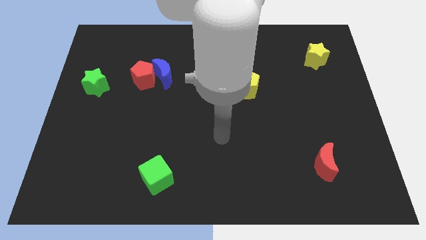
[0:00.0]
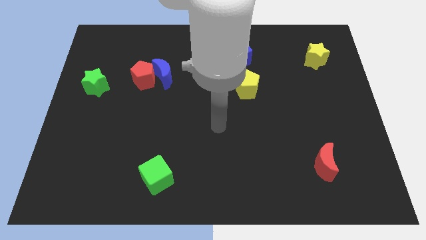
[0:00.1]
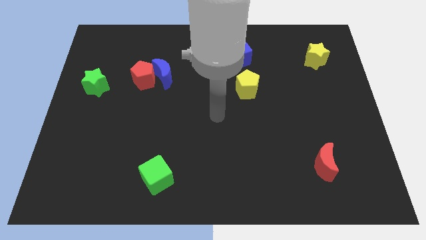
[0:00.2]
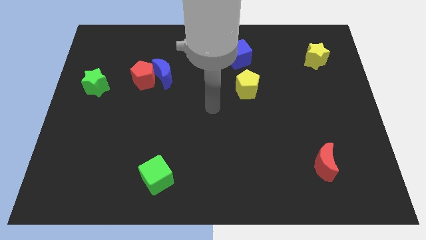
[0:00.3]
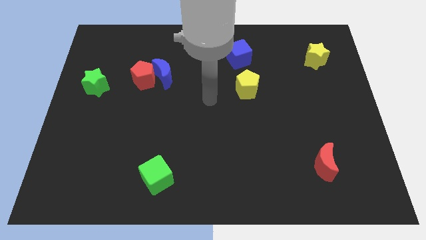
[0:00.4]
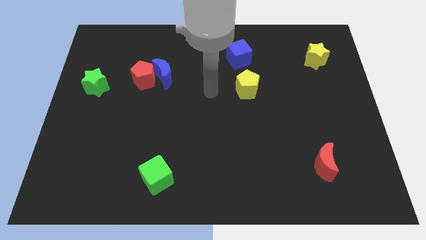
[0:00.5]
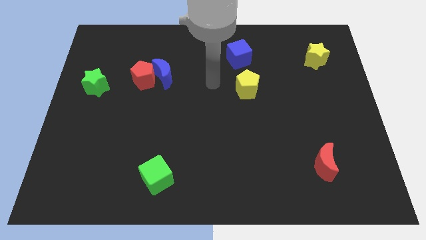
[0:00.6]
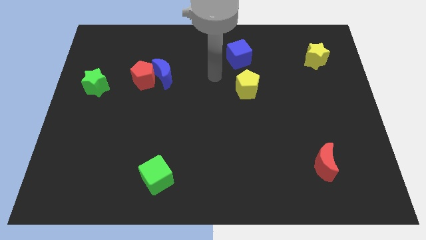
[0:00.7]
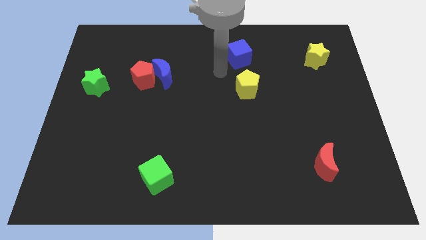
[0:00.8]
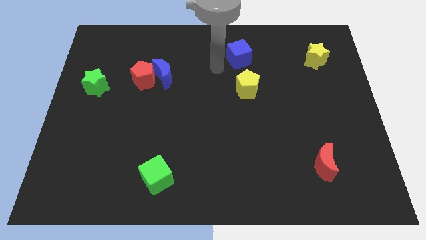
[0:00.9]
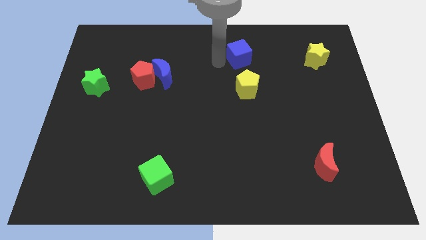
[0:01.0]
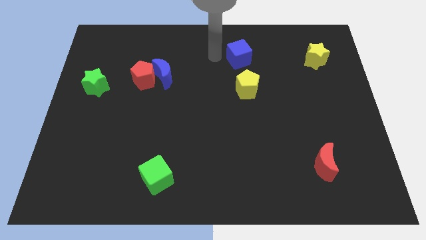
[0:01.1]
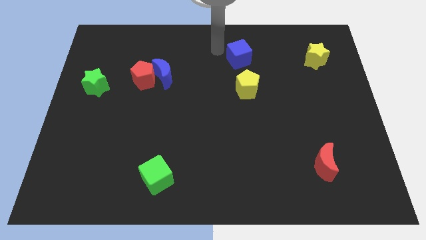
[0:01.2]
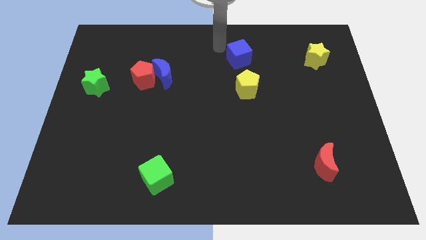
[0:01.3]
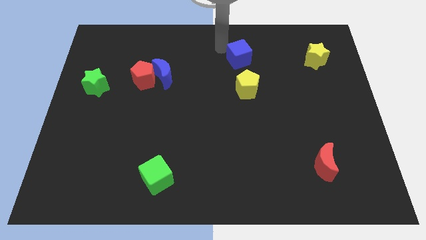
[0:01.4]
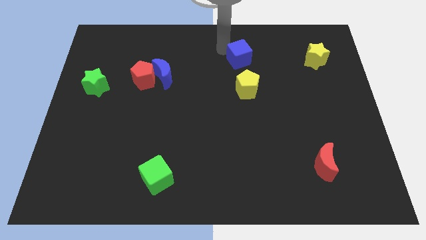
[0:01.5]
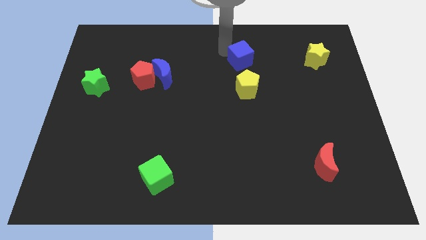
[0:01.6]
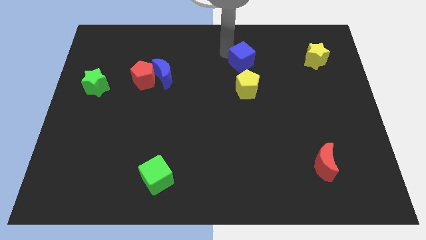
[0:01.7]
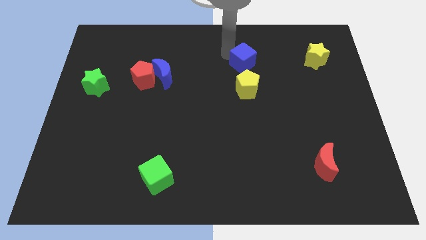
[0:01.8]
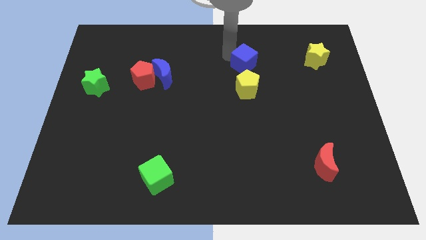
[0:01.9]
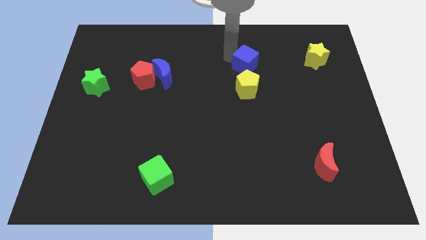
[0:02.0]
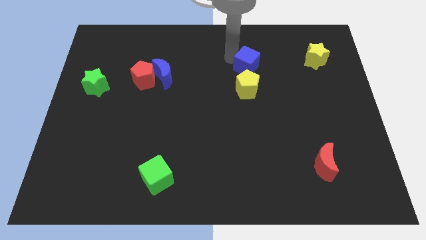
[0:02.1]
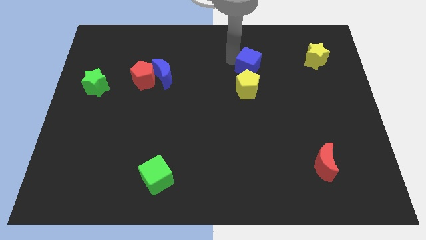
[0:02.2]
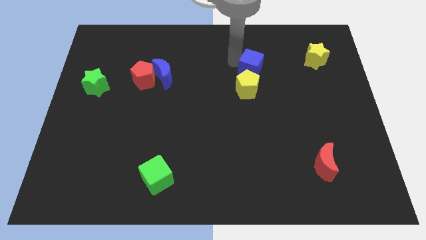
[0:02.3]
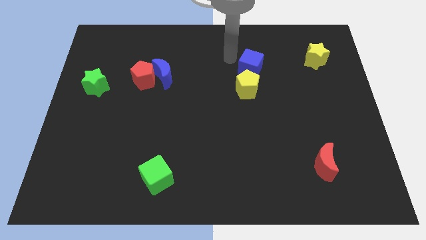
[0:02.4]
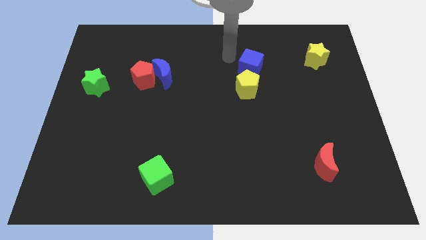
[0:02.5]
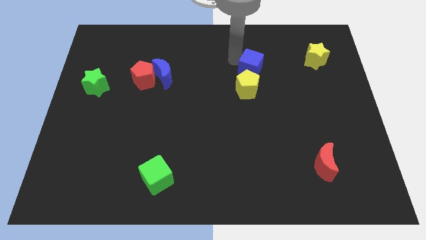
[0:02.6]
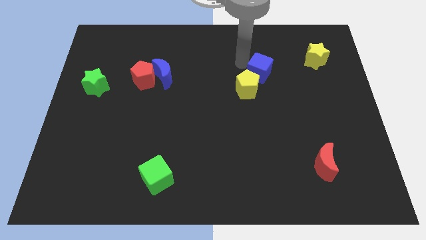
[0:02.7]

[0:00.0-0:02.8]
move the blue cube a bit downwards and then right

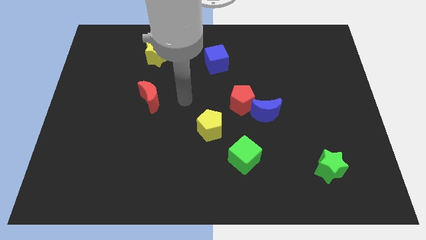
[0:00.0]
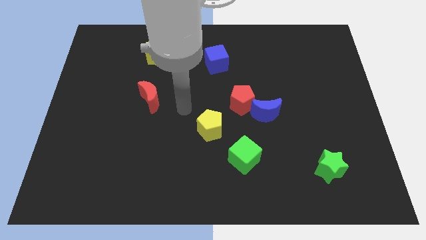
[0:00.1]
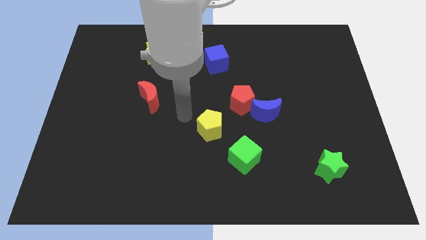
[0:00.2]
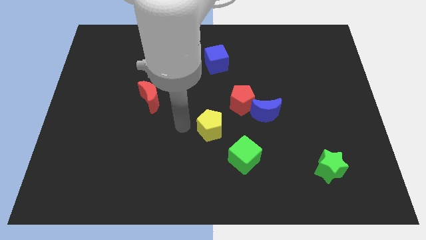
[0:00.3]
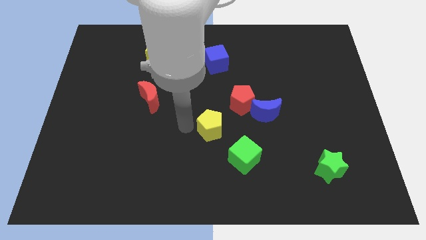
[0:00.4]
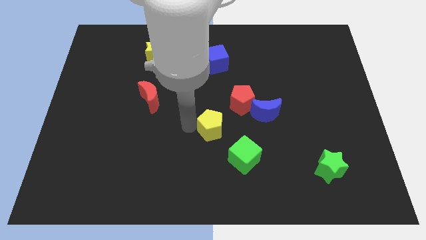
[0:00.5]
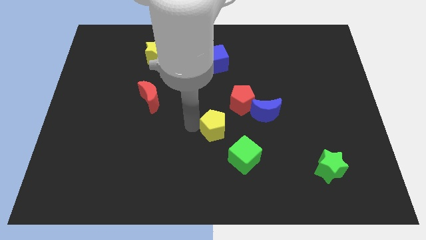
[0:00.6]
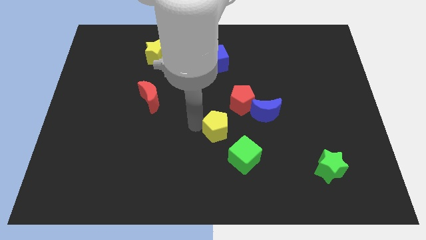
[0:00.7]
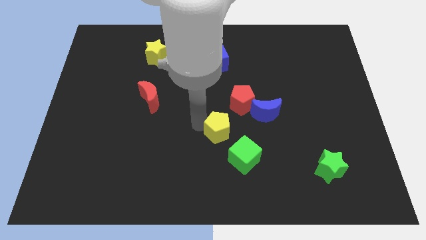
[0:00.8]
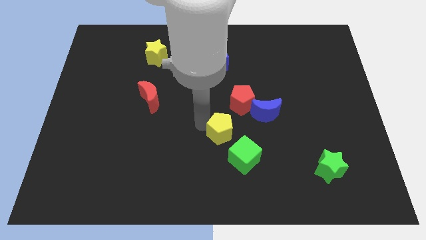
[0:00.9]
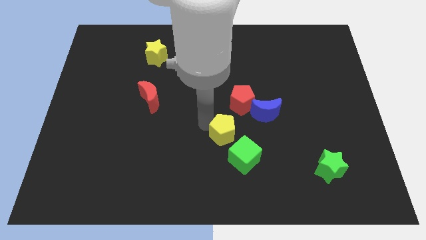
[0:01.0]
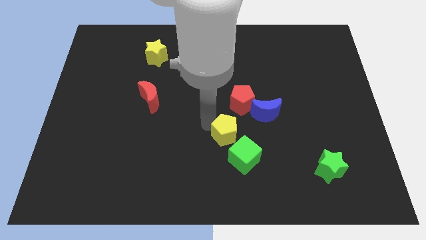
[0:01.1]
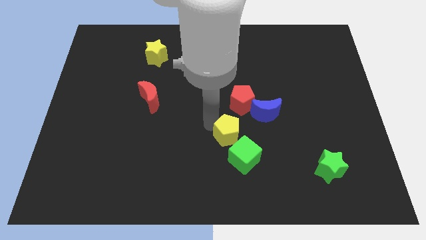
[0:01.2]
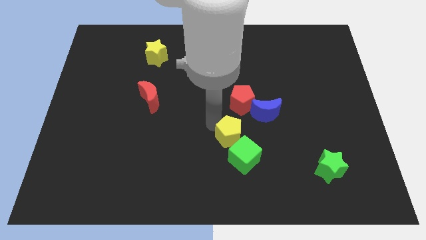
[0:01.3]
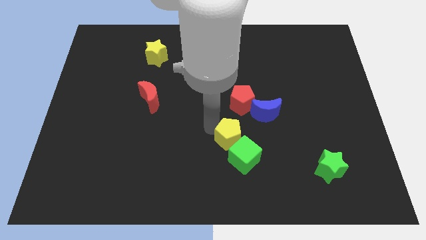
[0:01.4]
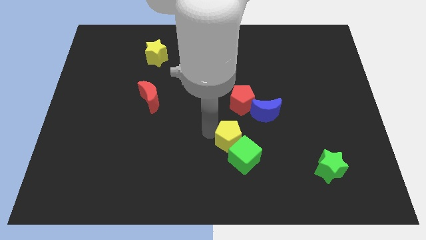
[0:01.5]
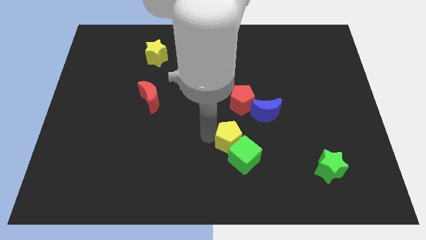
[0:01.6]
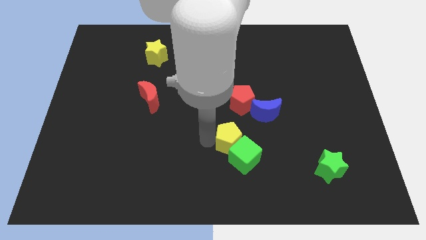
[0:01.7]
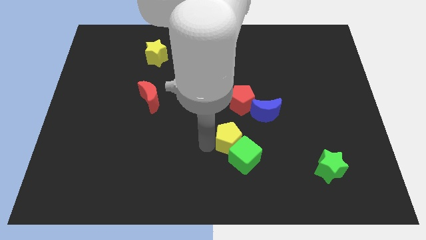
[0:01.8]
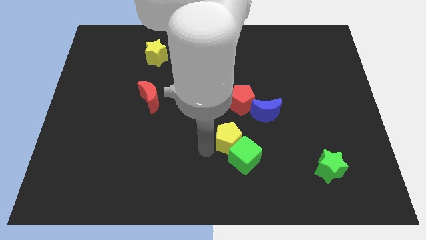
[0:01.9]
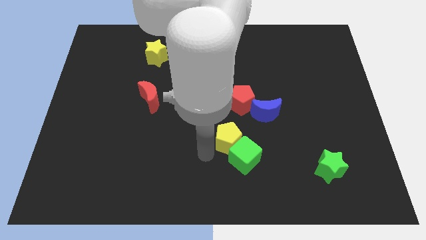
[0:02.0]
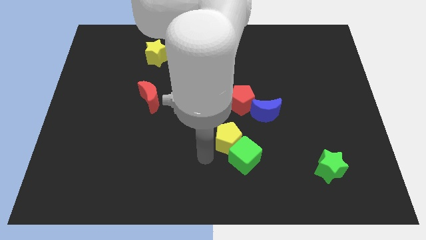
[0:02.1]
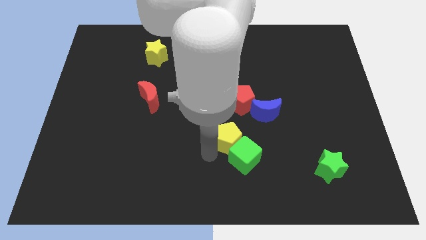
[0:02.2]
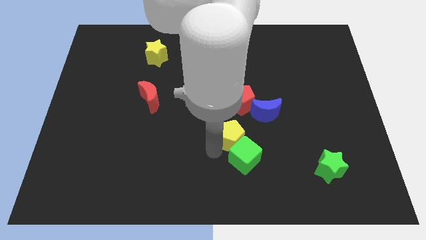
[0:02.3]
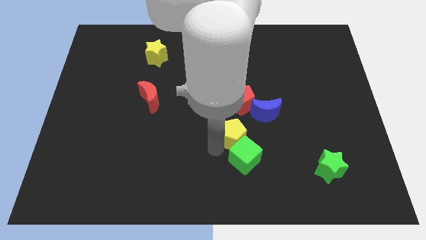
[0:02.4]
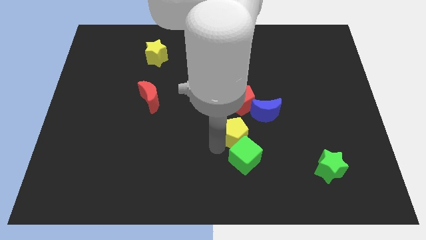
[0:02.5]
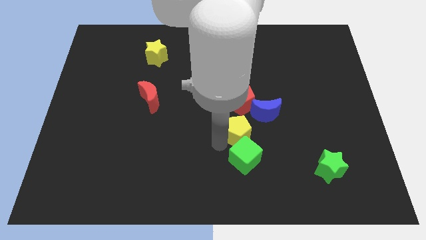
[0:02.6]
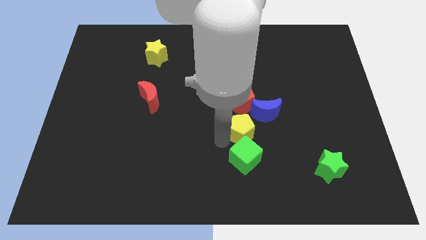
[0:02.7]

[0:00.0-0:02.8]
move the yellow pentagon to the right somewhat

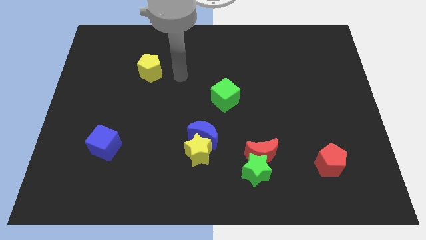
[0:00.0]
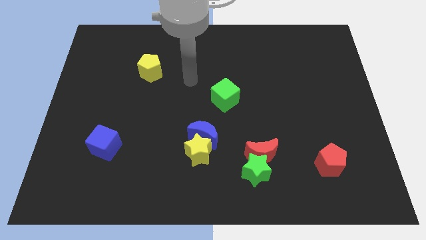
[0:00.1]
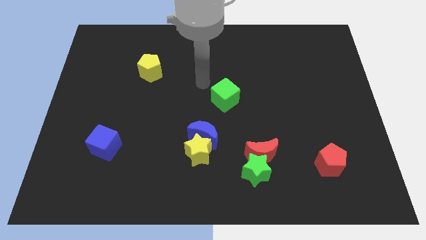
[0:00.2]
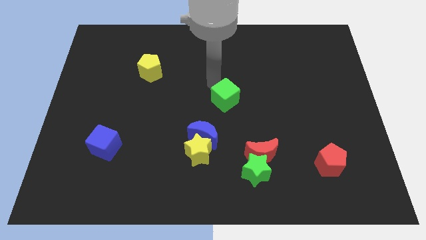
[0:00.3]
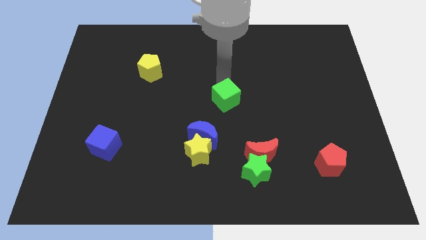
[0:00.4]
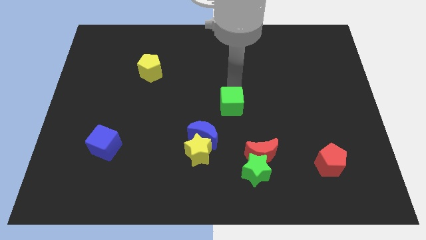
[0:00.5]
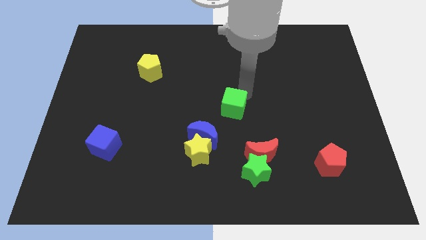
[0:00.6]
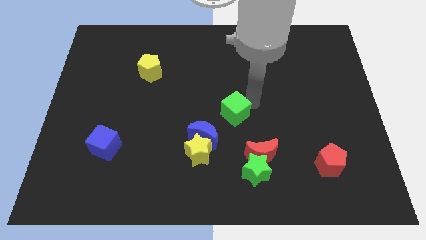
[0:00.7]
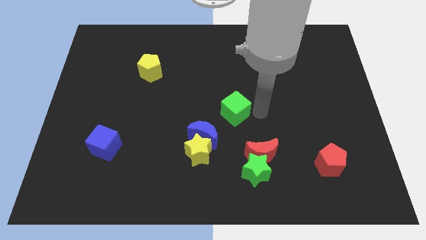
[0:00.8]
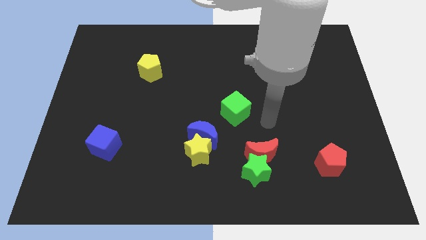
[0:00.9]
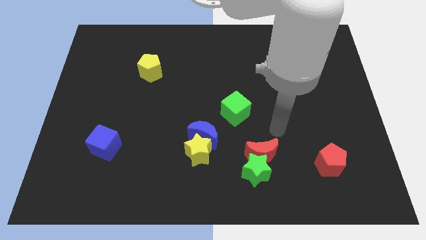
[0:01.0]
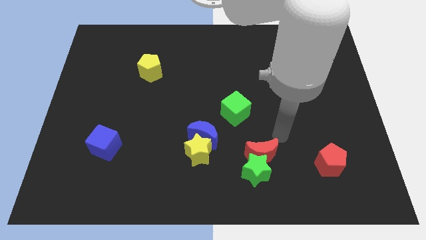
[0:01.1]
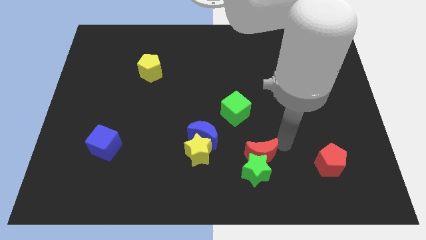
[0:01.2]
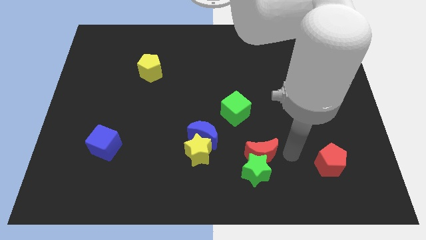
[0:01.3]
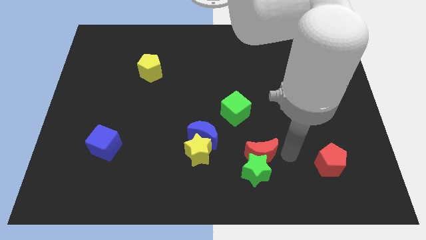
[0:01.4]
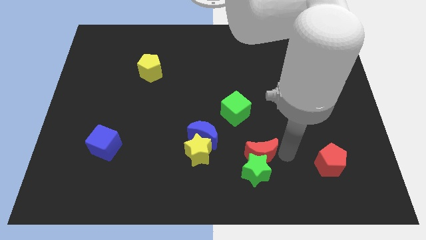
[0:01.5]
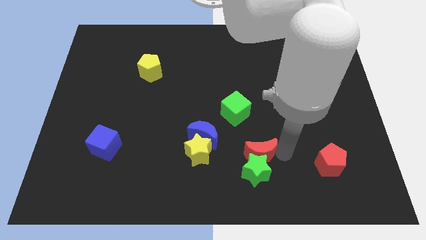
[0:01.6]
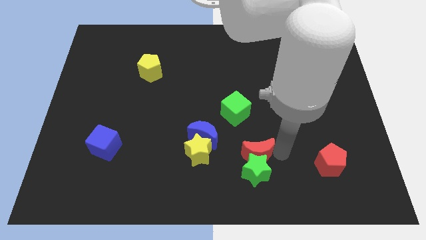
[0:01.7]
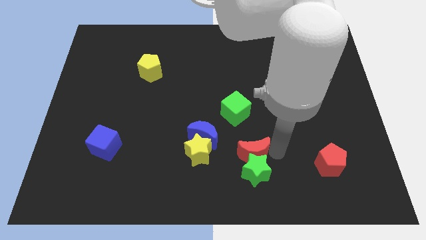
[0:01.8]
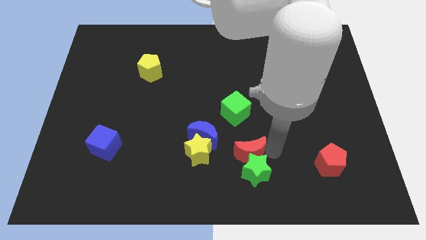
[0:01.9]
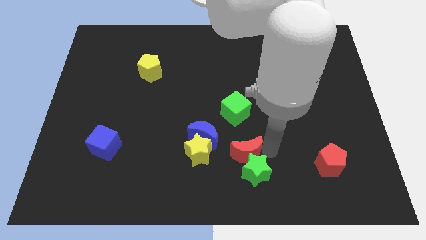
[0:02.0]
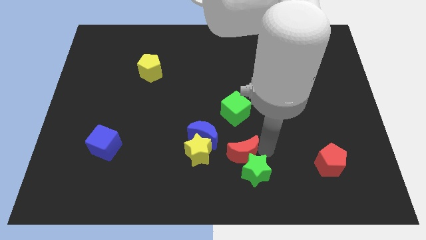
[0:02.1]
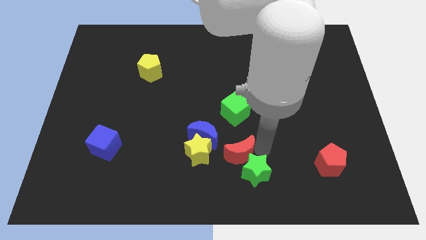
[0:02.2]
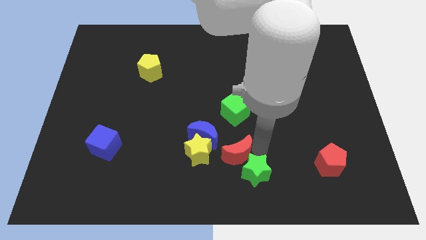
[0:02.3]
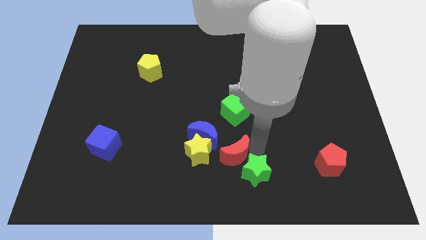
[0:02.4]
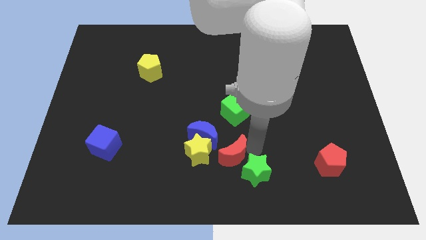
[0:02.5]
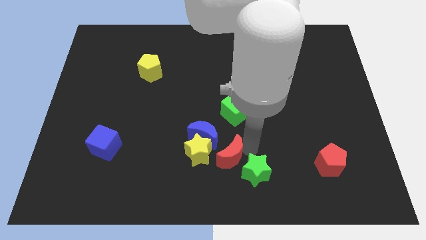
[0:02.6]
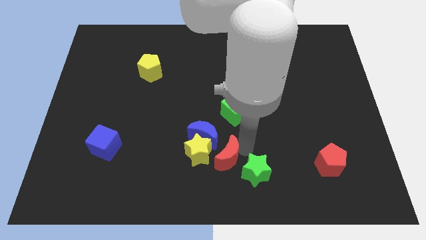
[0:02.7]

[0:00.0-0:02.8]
slightly push the red moon left
